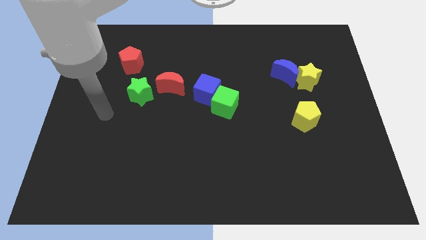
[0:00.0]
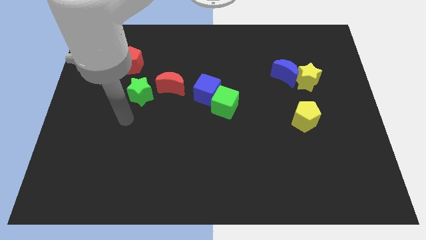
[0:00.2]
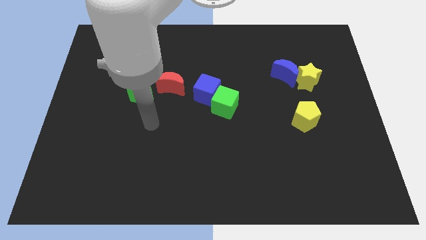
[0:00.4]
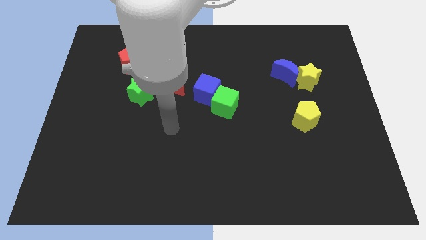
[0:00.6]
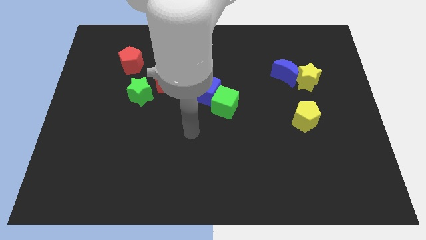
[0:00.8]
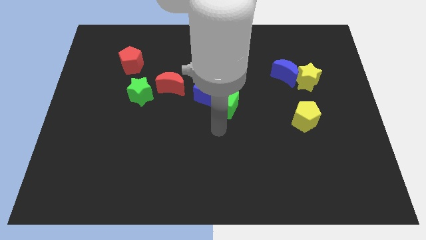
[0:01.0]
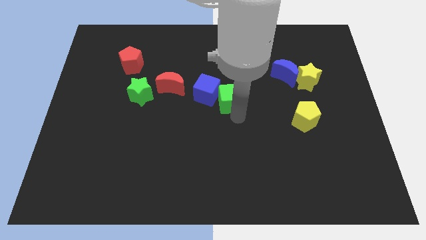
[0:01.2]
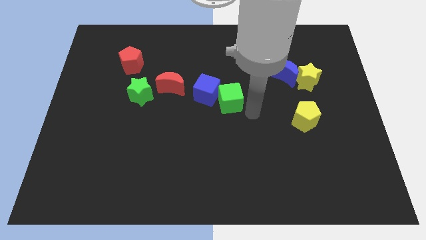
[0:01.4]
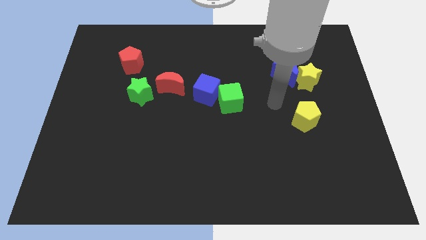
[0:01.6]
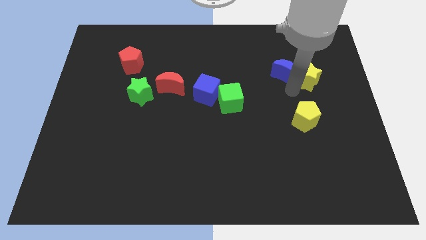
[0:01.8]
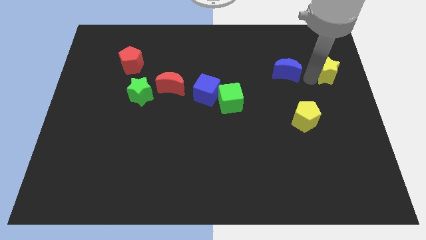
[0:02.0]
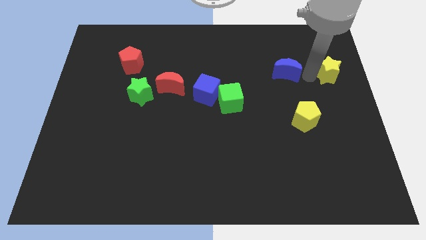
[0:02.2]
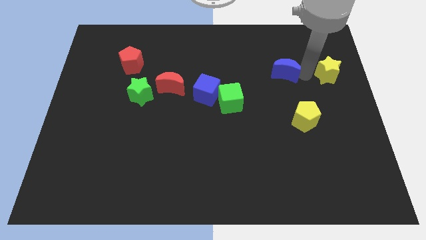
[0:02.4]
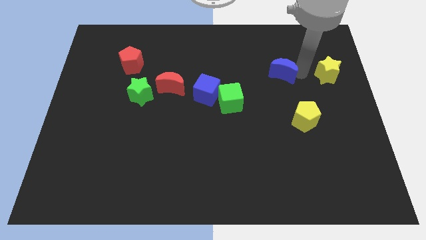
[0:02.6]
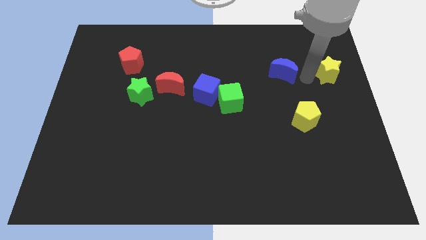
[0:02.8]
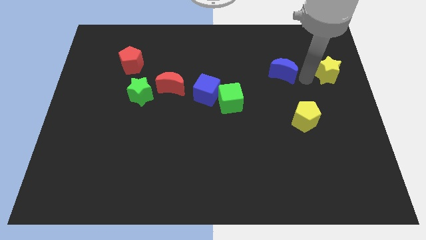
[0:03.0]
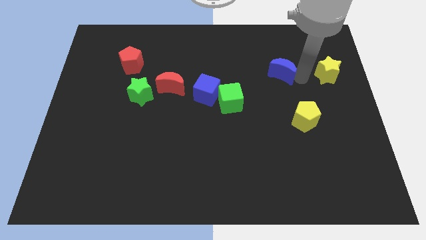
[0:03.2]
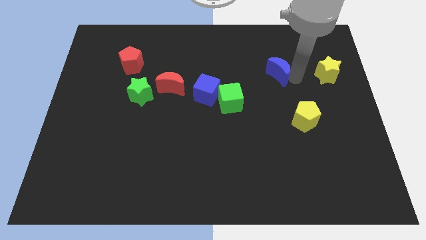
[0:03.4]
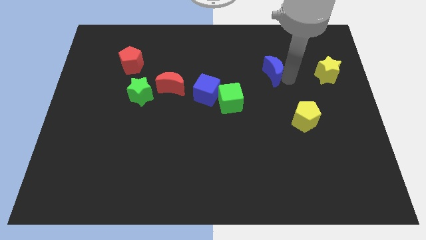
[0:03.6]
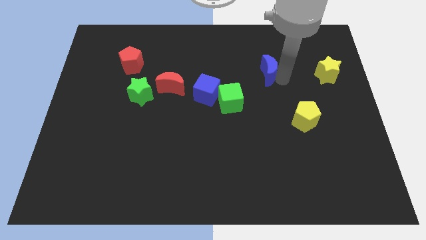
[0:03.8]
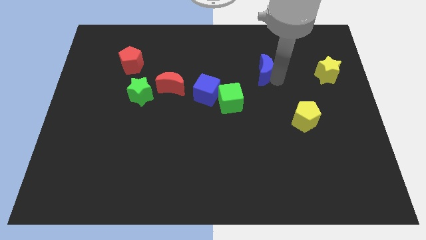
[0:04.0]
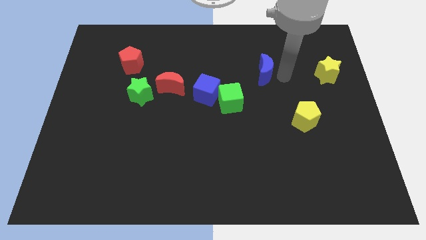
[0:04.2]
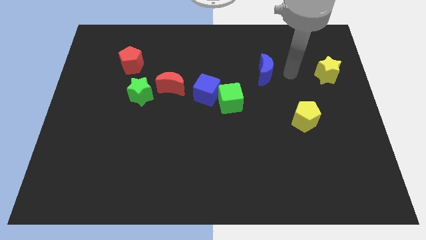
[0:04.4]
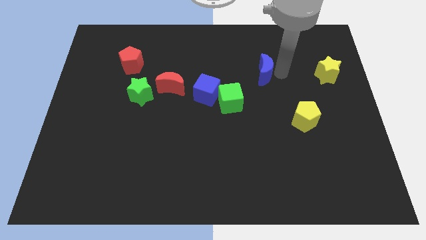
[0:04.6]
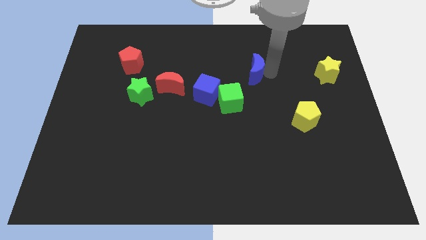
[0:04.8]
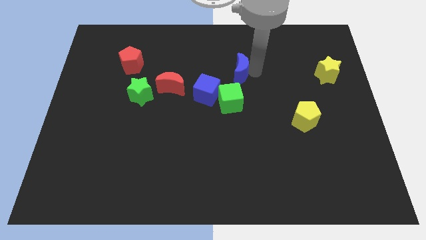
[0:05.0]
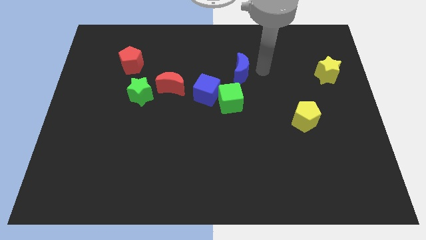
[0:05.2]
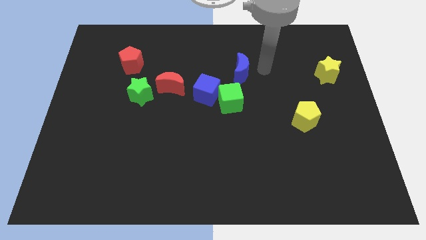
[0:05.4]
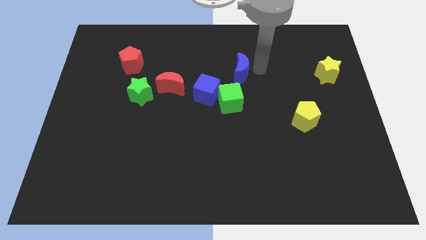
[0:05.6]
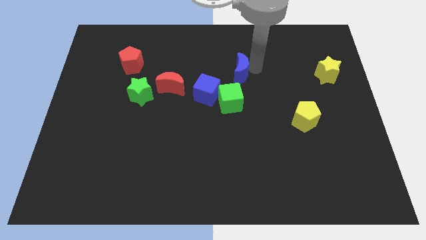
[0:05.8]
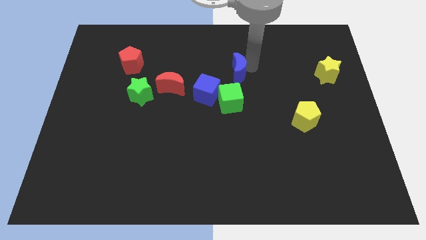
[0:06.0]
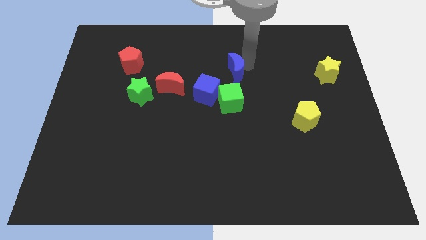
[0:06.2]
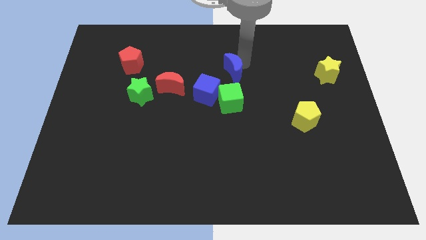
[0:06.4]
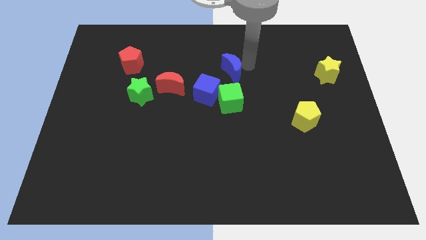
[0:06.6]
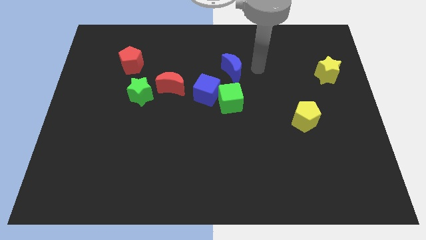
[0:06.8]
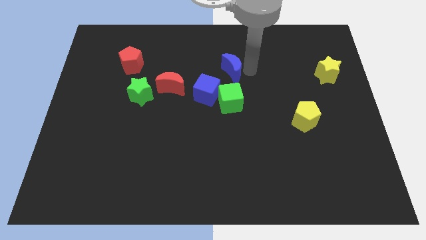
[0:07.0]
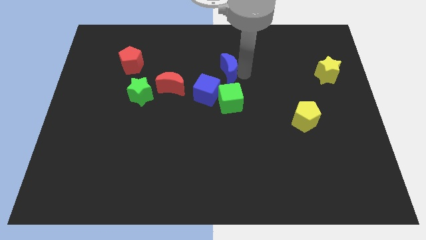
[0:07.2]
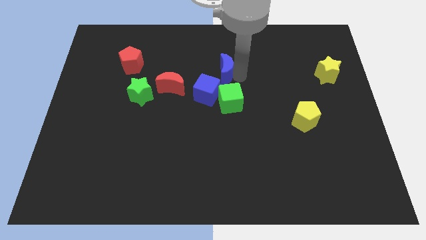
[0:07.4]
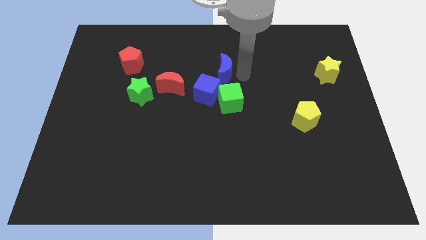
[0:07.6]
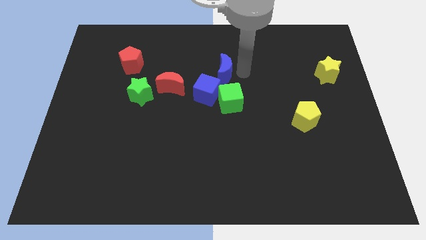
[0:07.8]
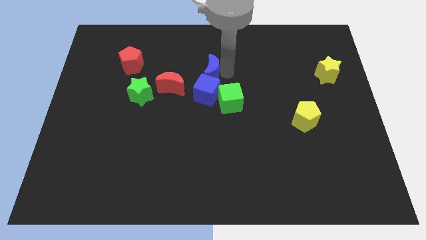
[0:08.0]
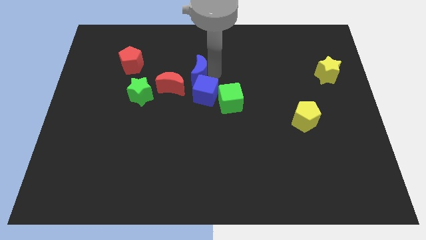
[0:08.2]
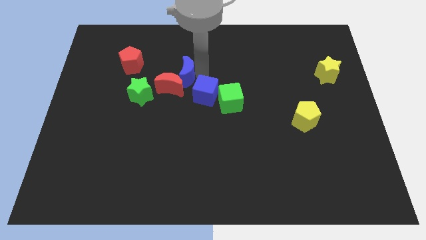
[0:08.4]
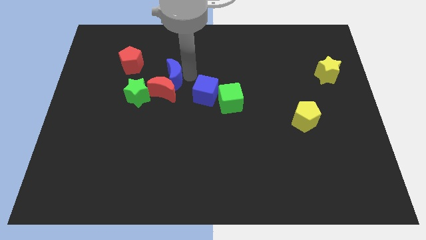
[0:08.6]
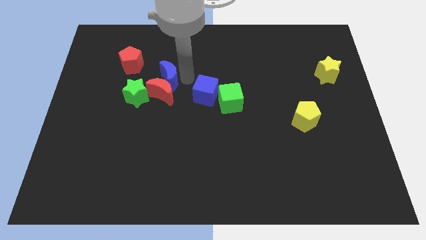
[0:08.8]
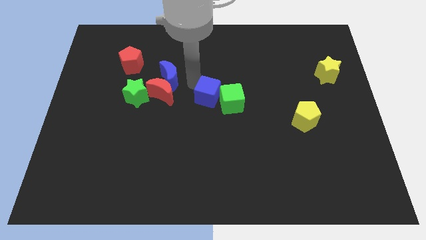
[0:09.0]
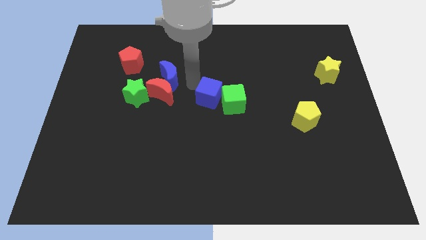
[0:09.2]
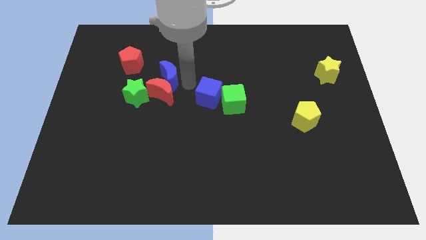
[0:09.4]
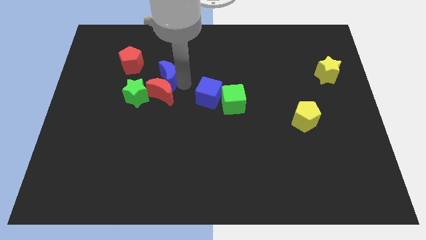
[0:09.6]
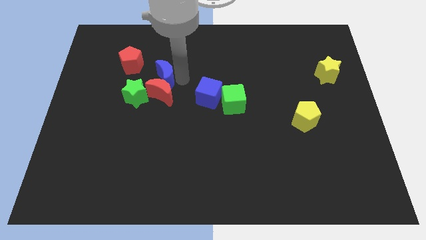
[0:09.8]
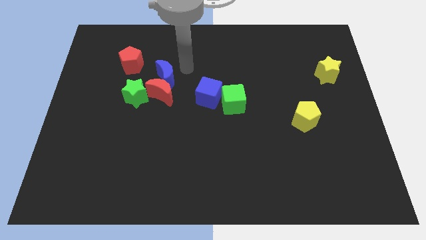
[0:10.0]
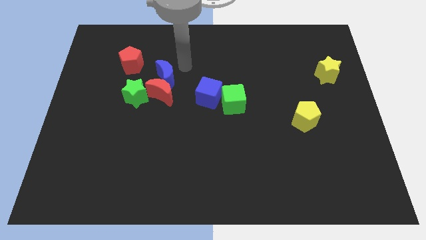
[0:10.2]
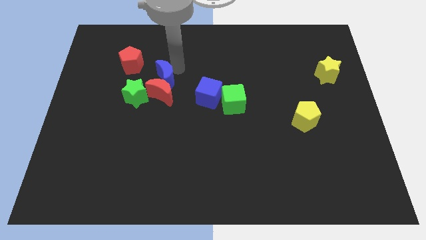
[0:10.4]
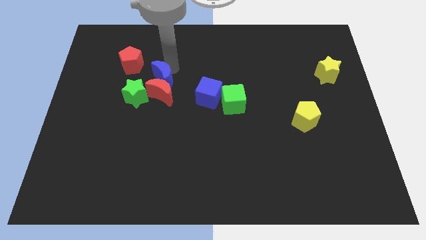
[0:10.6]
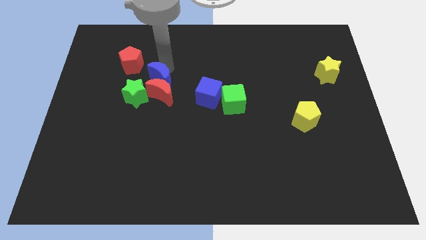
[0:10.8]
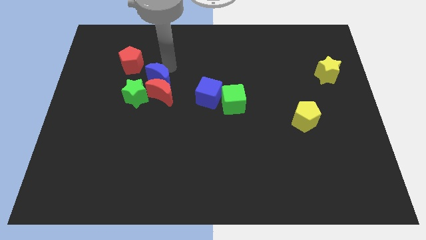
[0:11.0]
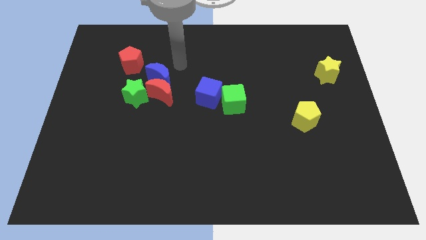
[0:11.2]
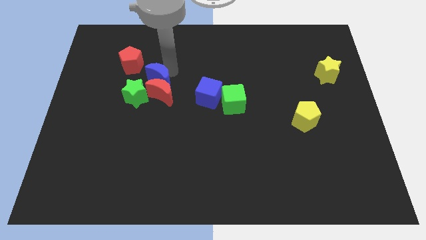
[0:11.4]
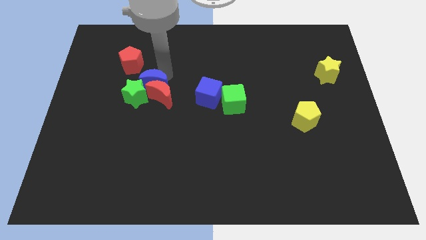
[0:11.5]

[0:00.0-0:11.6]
slide the blue moon to the green star

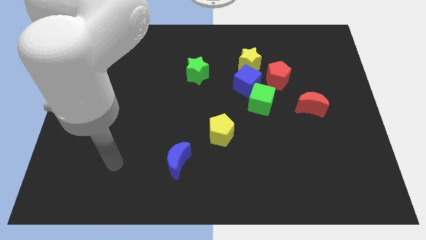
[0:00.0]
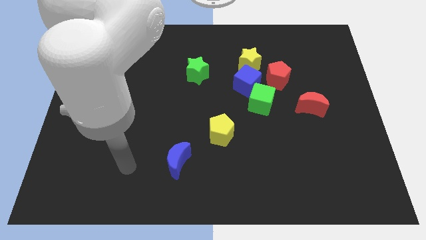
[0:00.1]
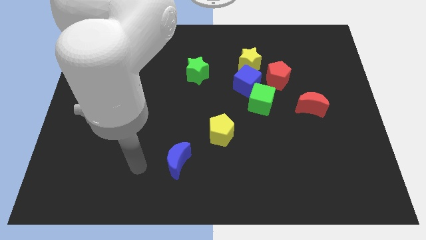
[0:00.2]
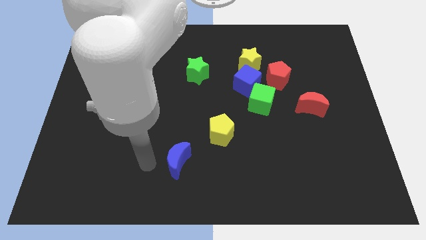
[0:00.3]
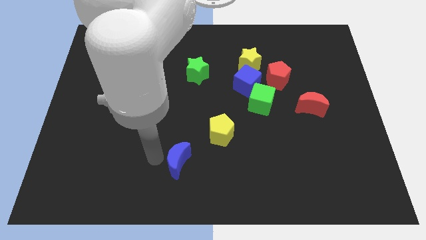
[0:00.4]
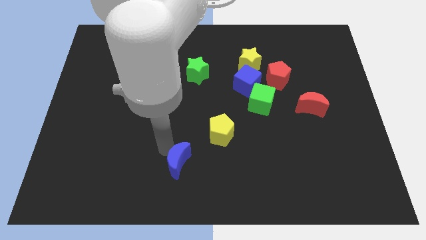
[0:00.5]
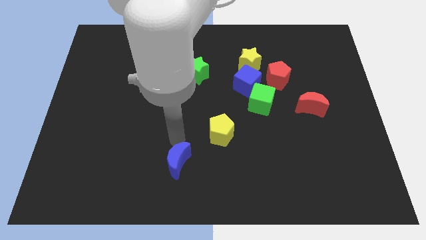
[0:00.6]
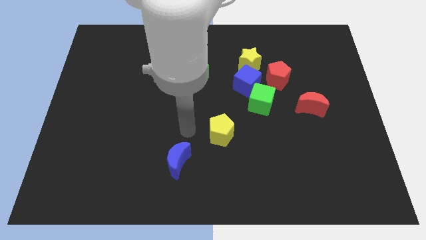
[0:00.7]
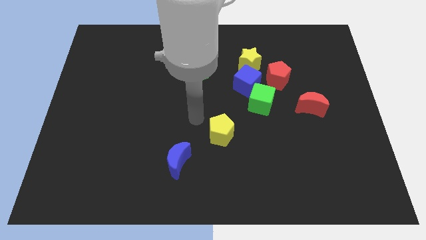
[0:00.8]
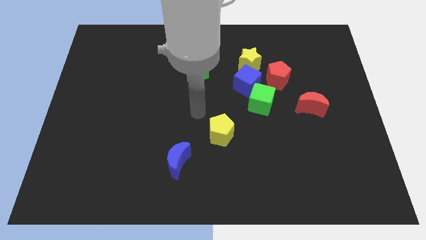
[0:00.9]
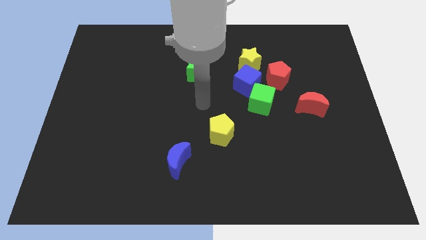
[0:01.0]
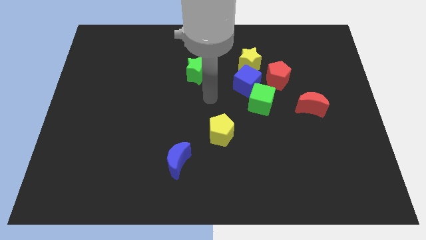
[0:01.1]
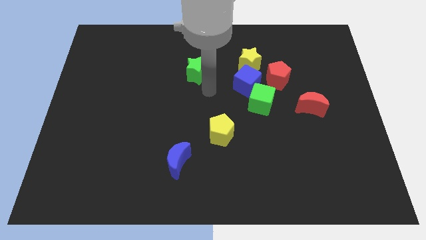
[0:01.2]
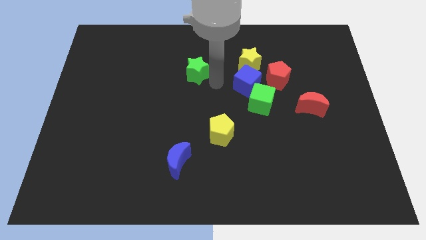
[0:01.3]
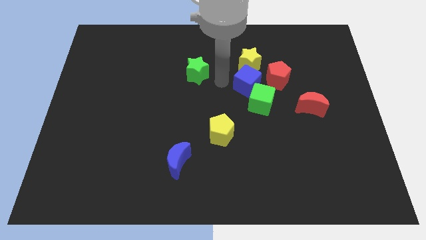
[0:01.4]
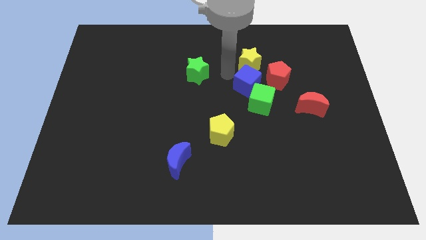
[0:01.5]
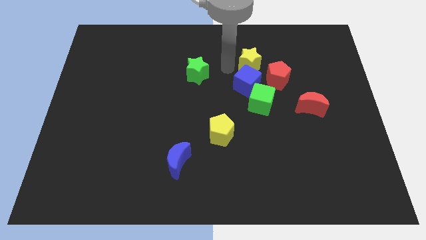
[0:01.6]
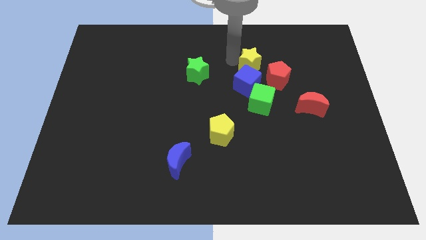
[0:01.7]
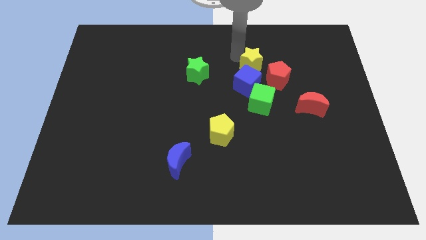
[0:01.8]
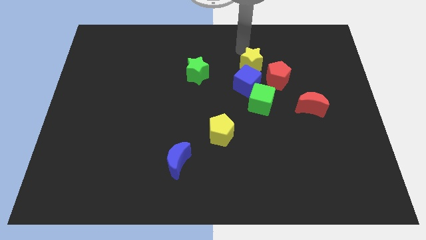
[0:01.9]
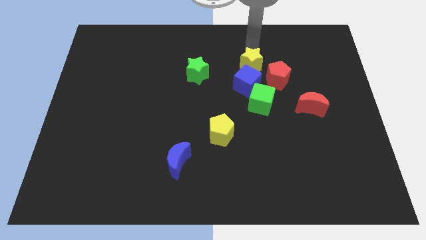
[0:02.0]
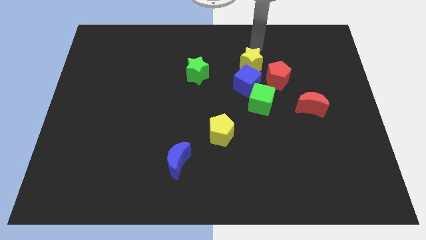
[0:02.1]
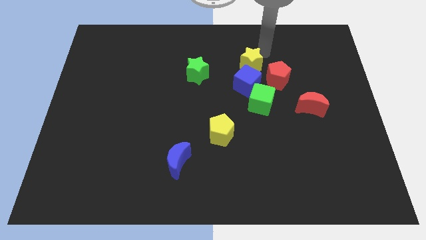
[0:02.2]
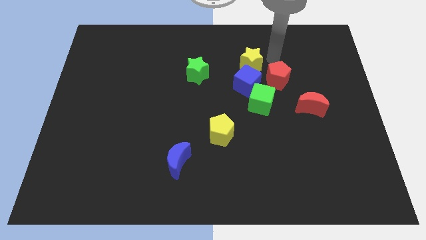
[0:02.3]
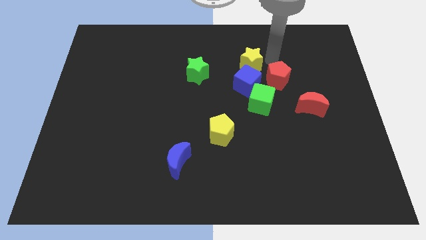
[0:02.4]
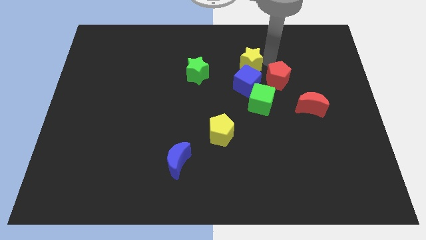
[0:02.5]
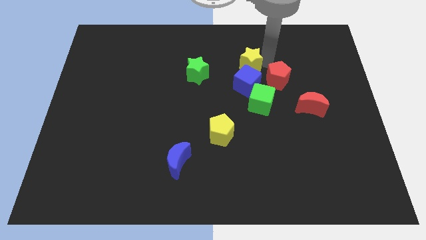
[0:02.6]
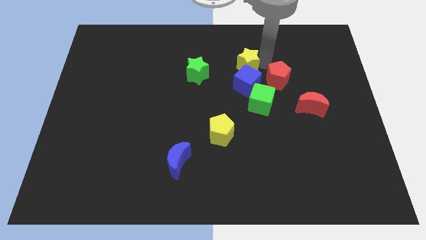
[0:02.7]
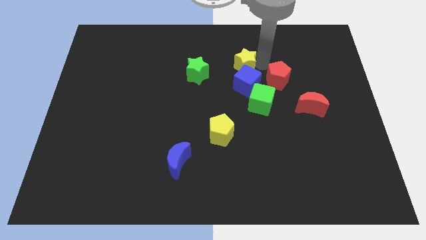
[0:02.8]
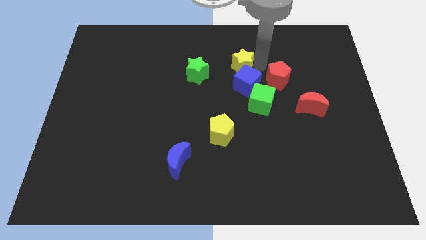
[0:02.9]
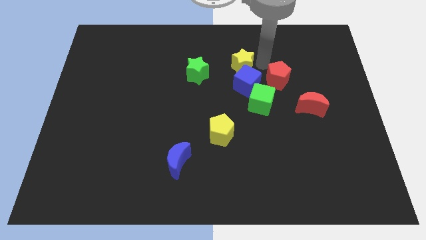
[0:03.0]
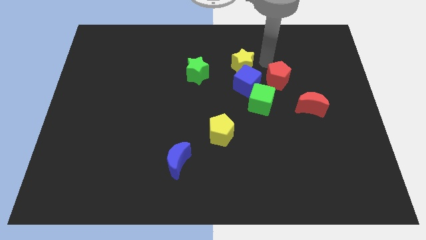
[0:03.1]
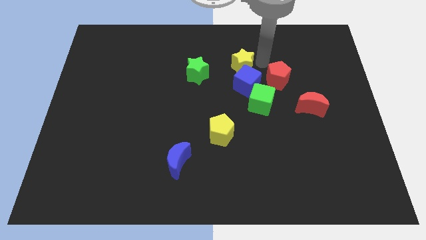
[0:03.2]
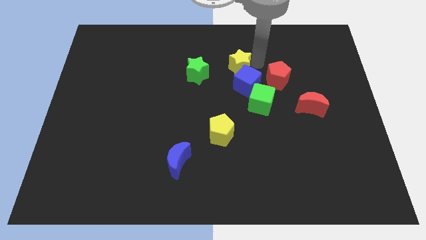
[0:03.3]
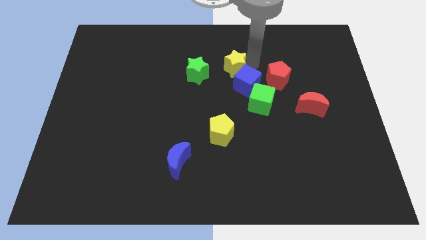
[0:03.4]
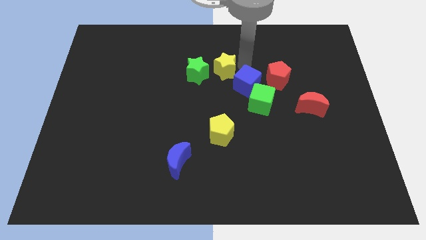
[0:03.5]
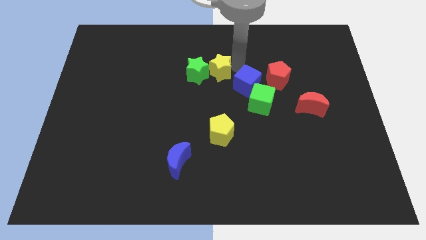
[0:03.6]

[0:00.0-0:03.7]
put the yellow star next to the green star
